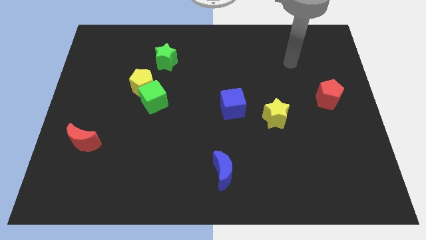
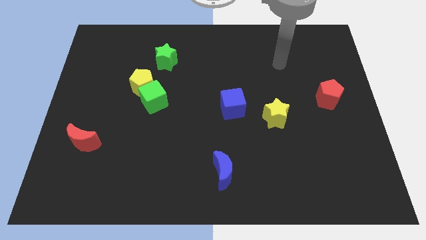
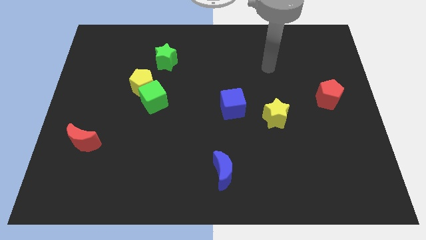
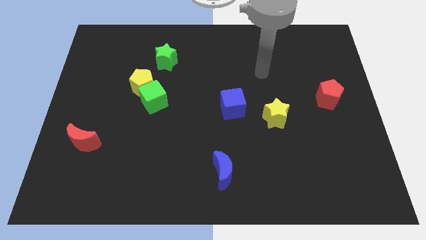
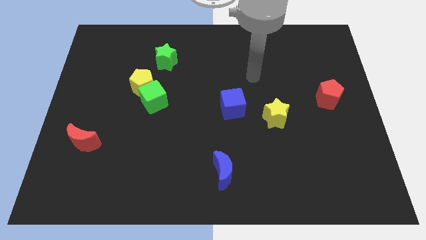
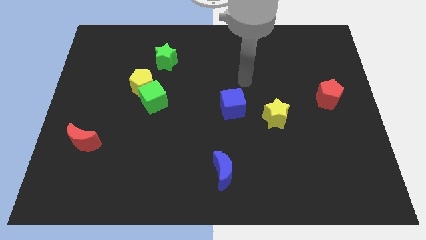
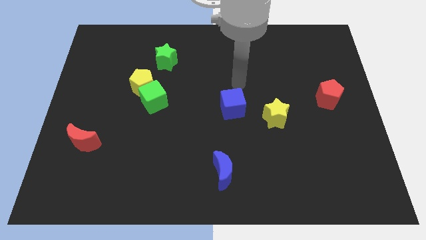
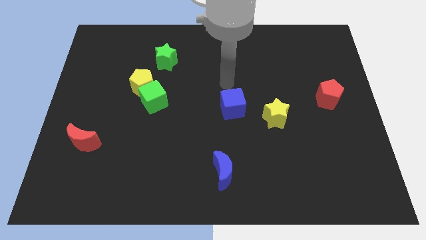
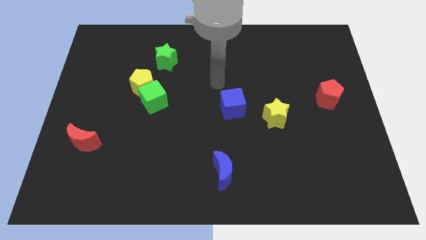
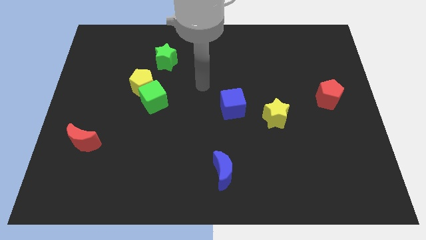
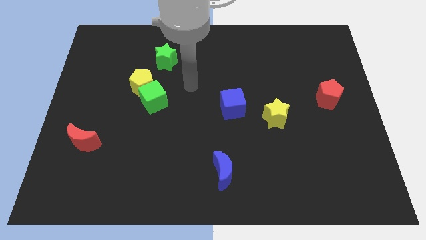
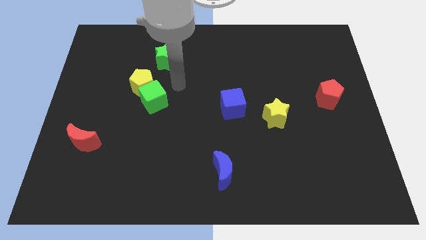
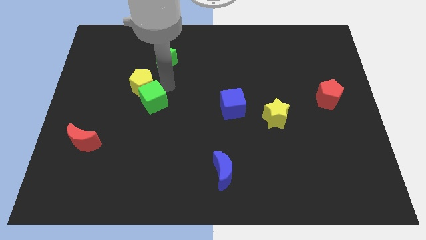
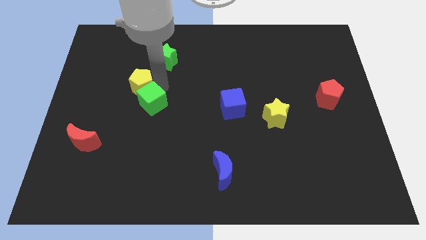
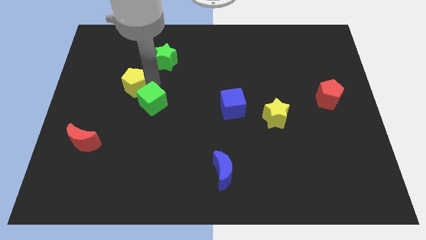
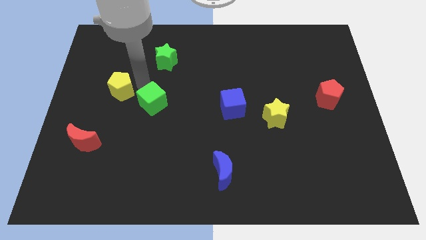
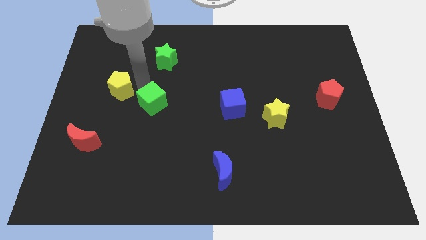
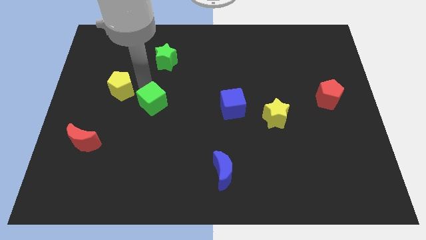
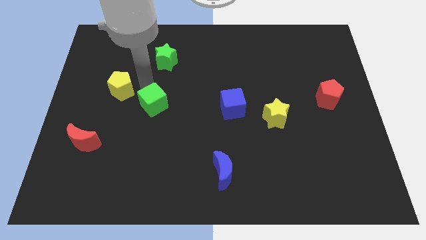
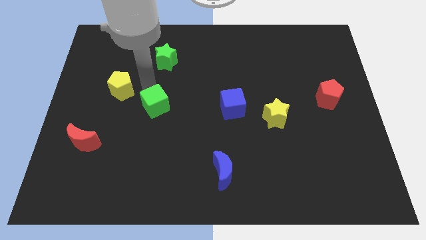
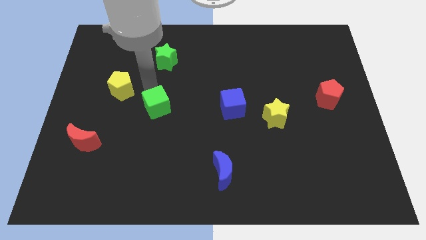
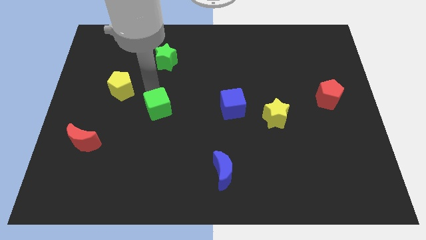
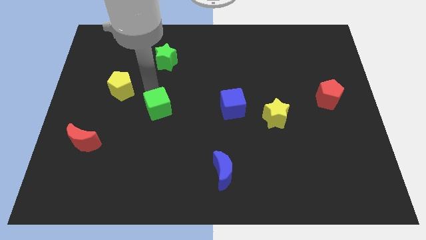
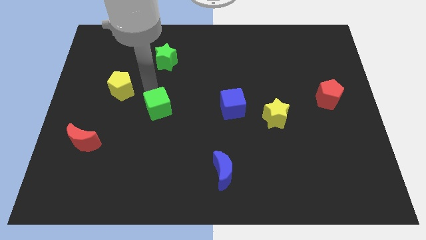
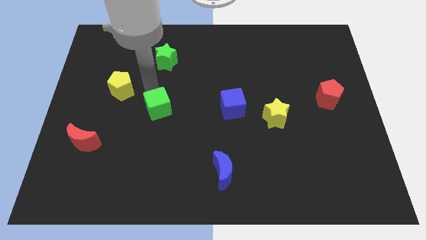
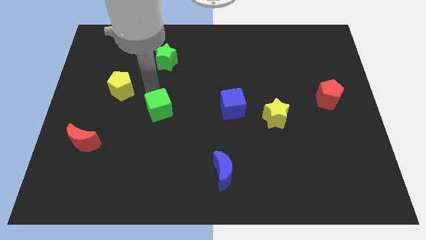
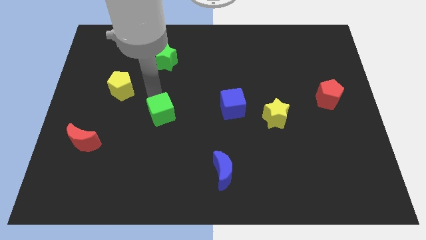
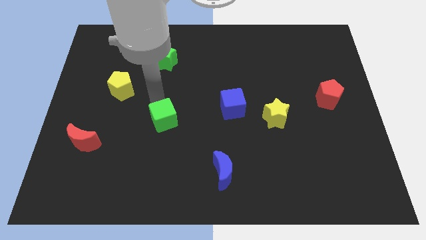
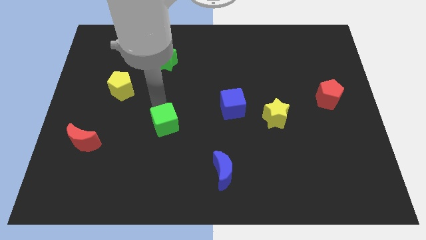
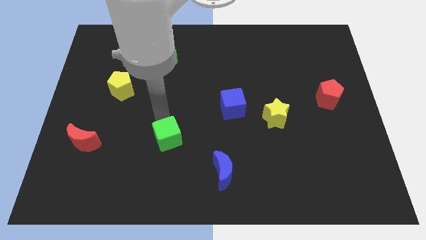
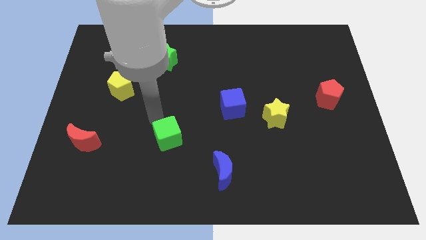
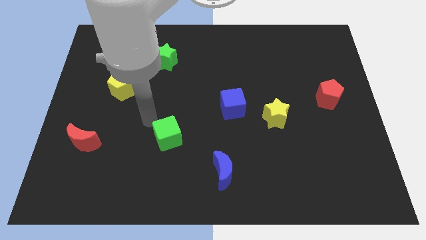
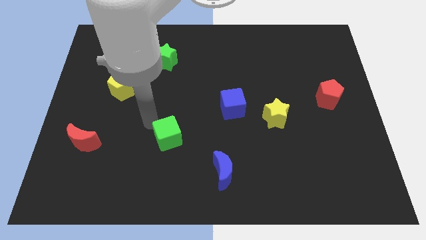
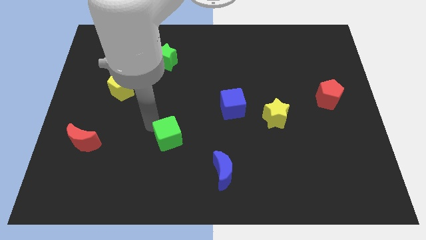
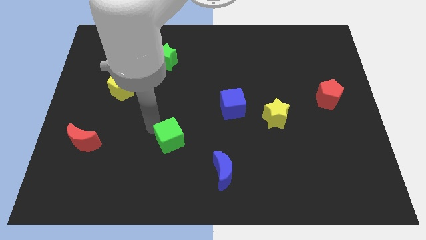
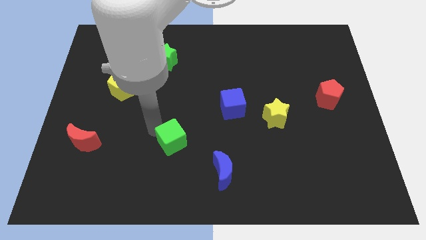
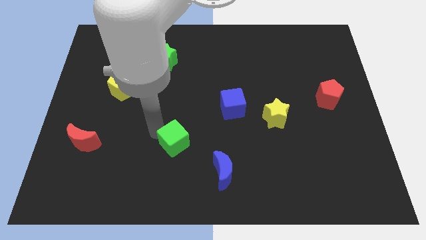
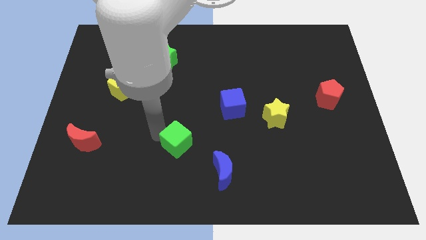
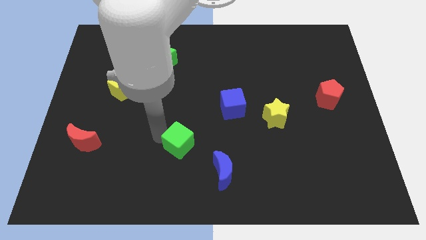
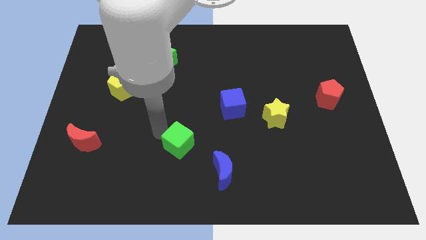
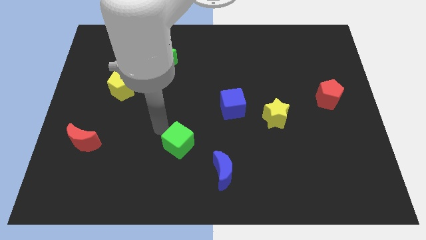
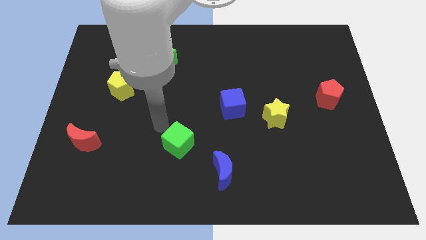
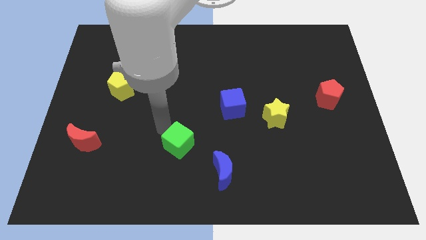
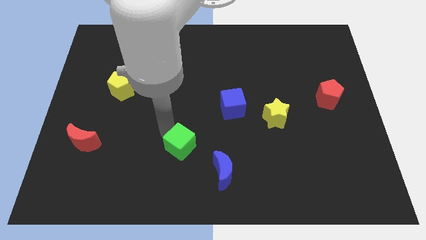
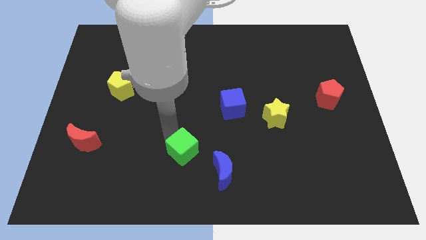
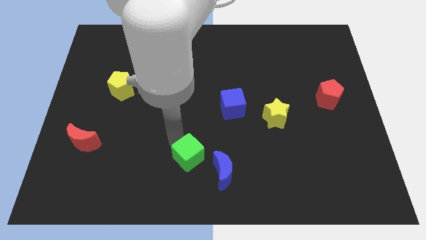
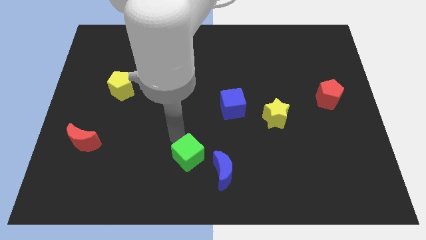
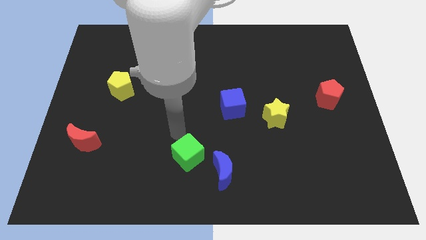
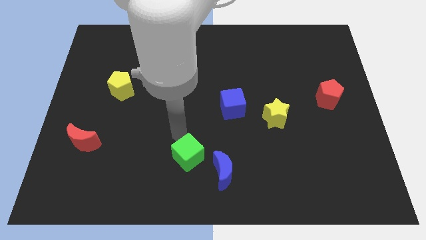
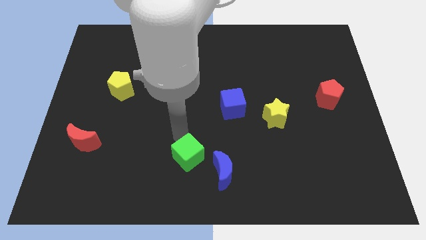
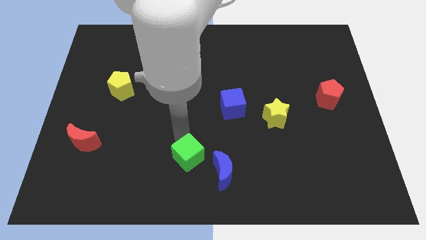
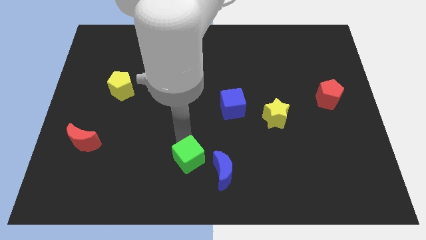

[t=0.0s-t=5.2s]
push the green cube to the bottom side

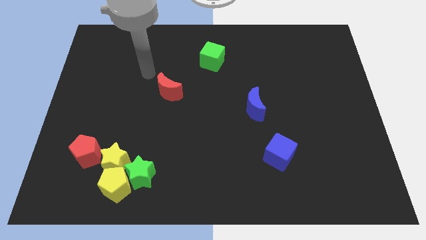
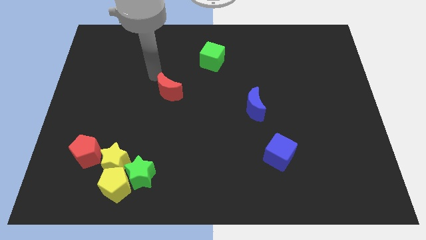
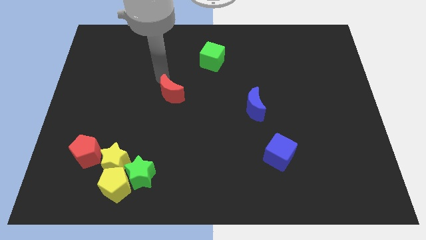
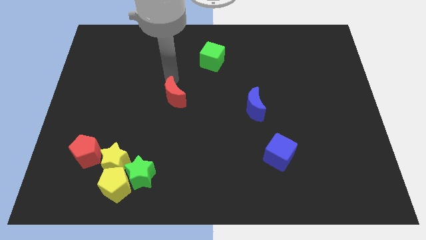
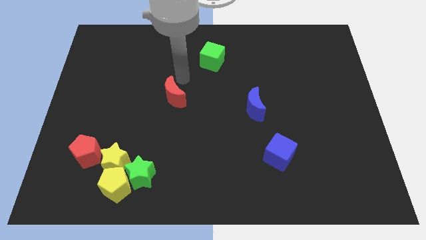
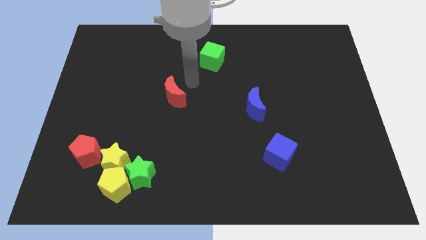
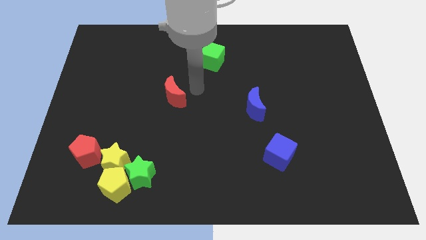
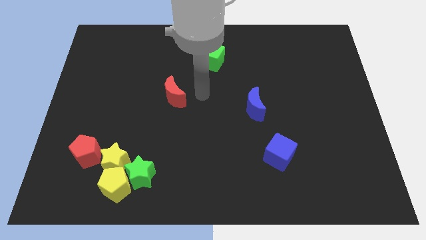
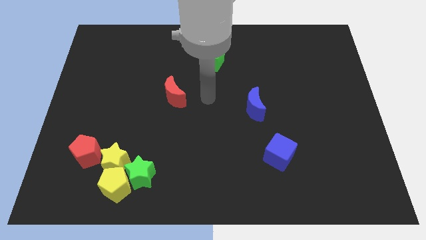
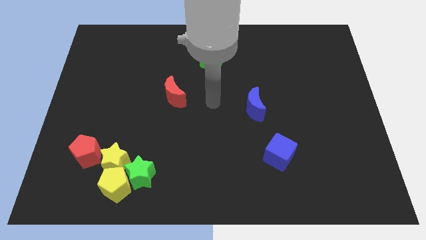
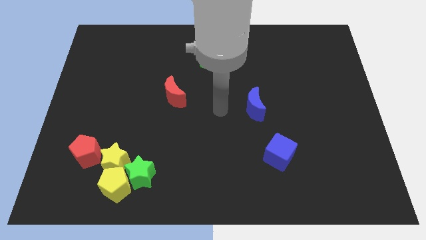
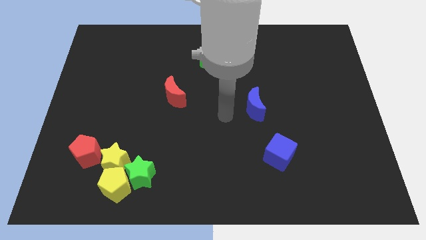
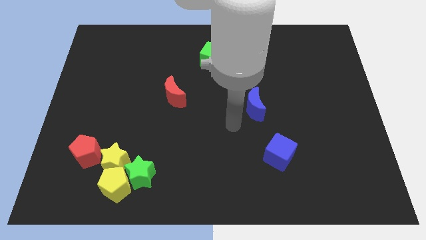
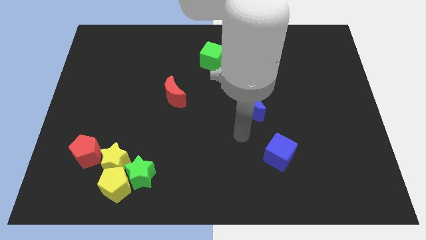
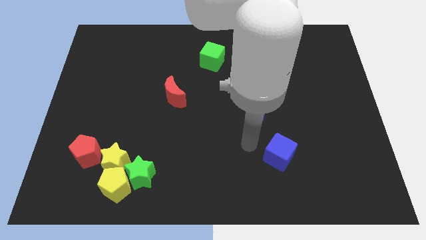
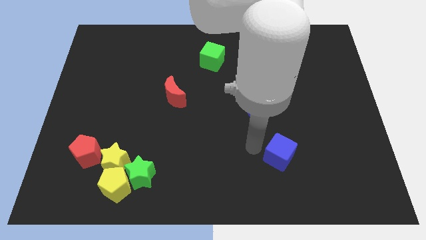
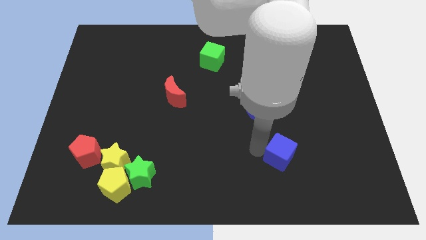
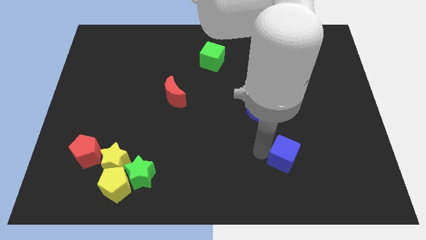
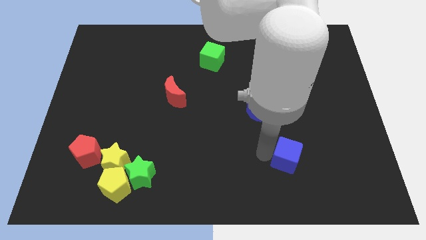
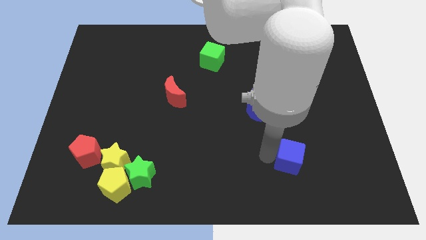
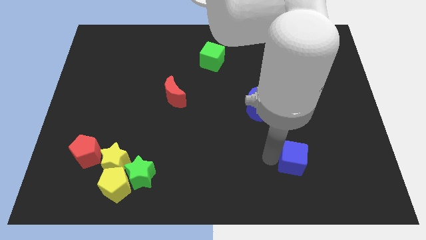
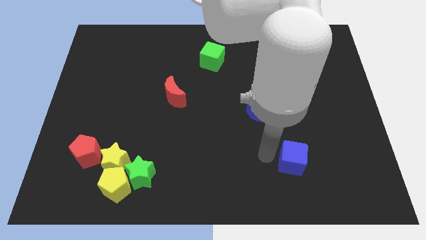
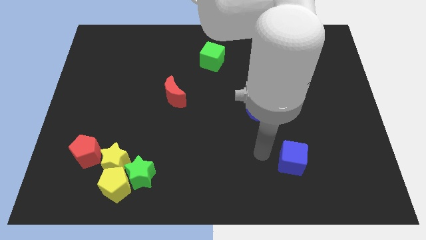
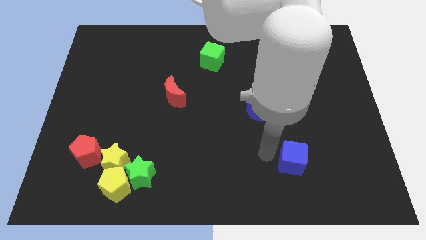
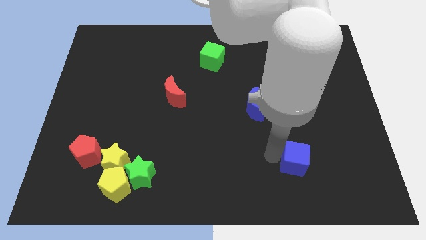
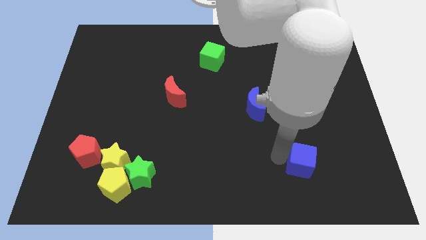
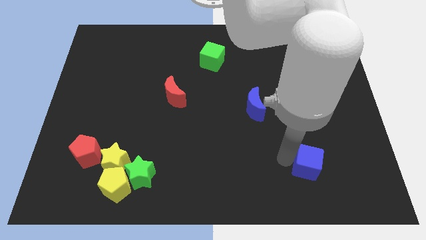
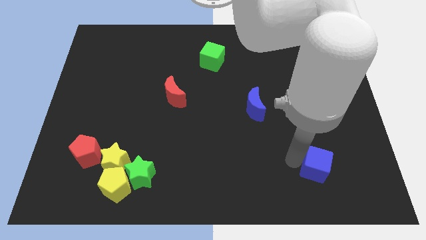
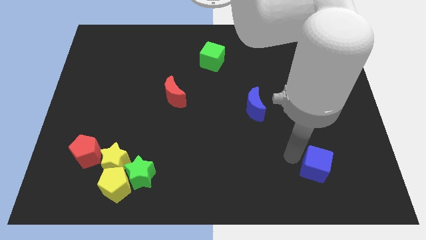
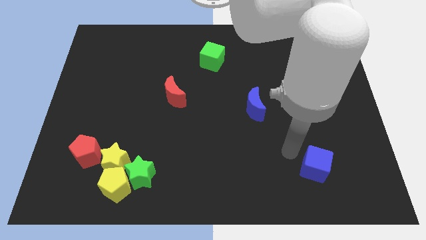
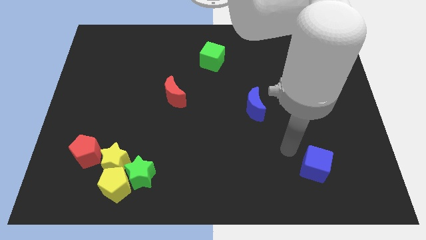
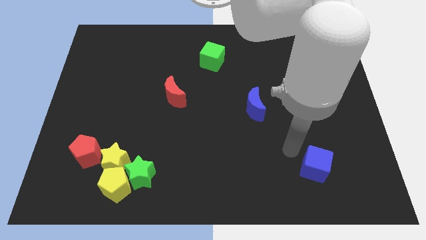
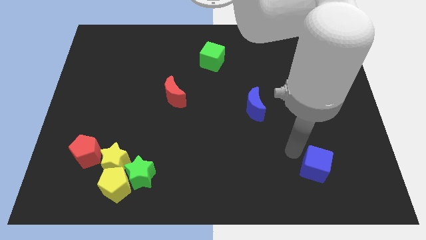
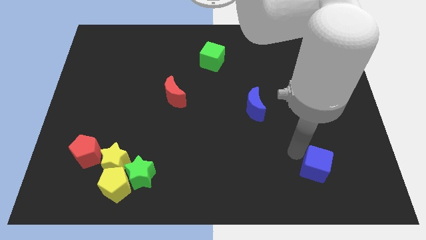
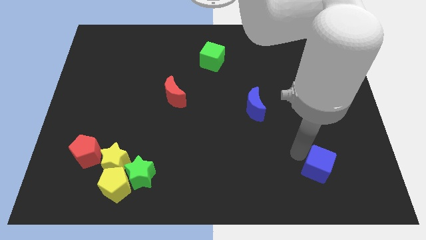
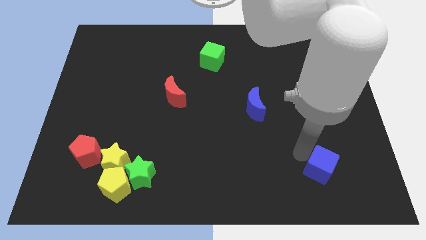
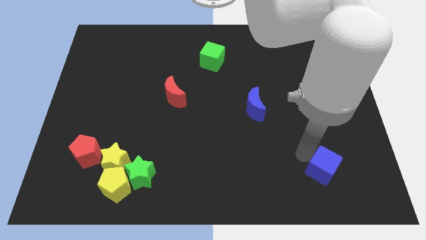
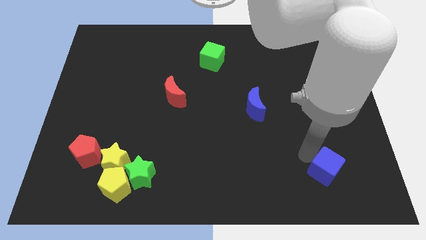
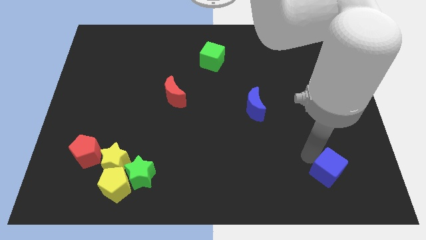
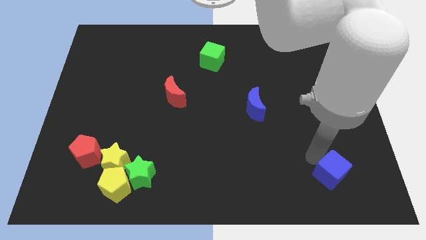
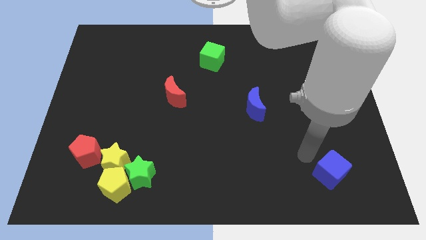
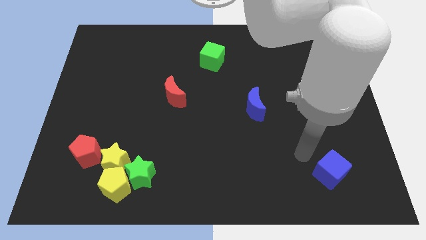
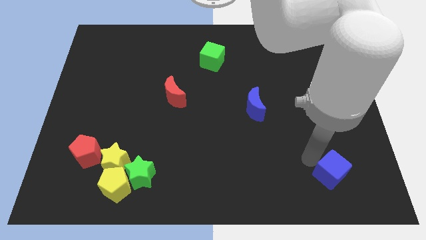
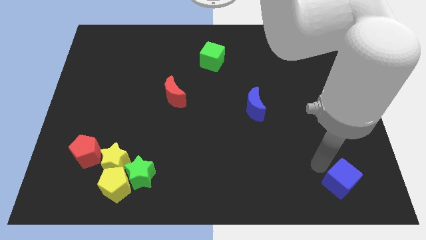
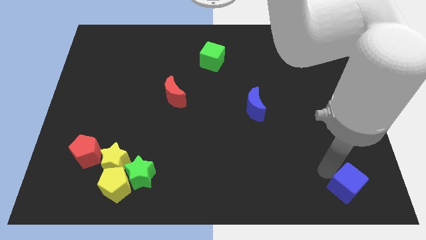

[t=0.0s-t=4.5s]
slide the blue cube to the bottom right
